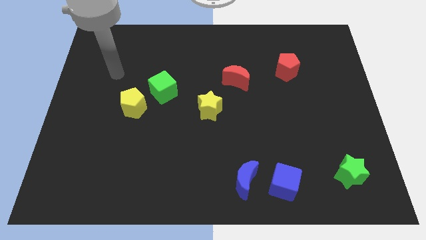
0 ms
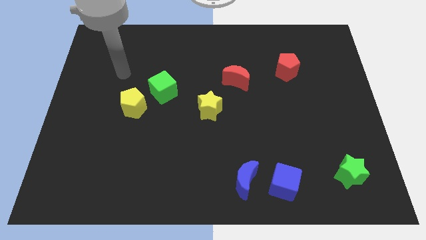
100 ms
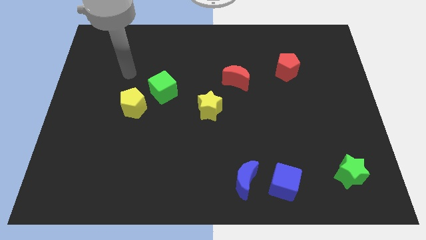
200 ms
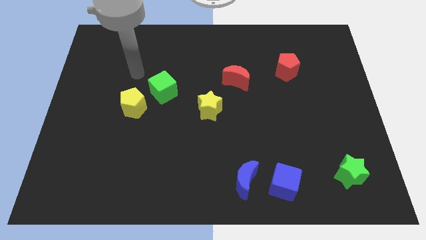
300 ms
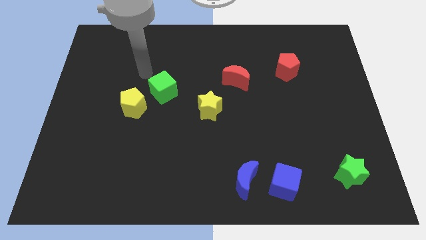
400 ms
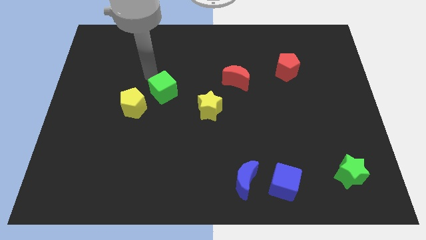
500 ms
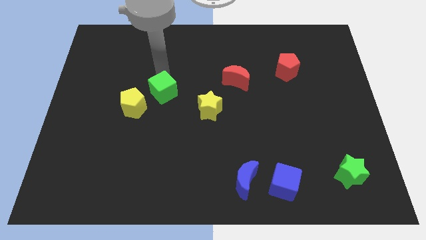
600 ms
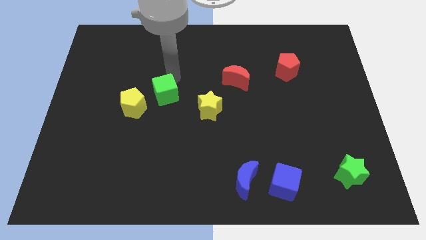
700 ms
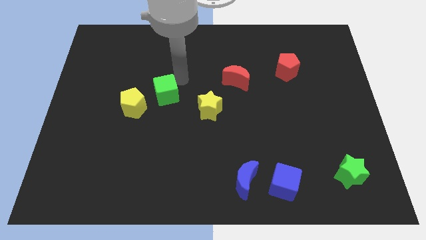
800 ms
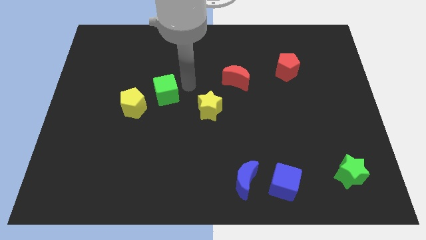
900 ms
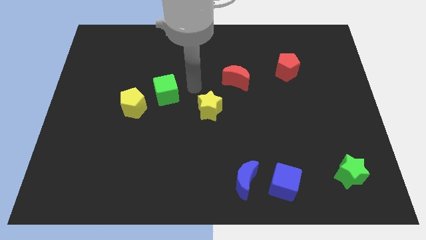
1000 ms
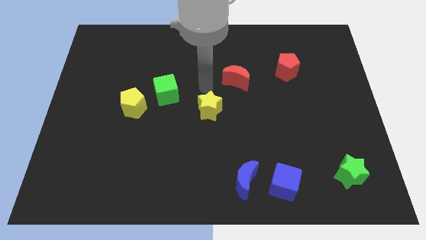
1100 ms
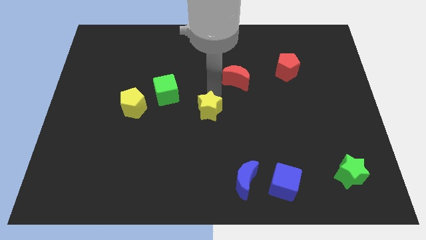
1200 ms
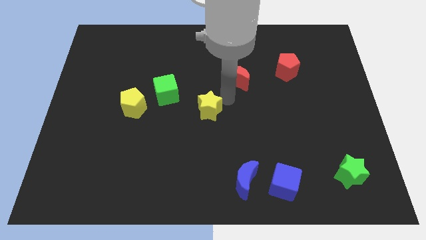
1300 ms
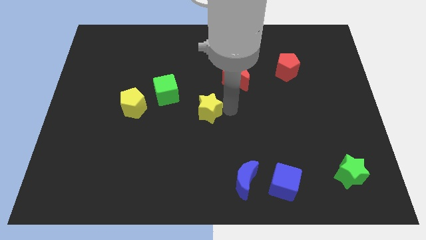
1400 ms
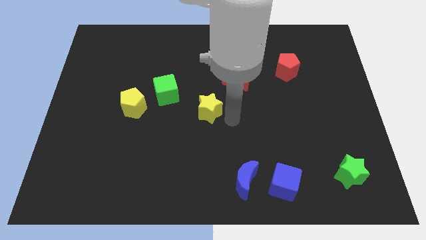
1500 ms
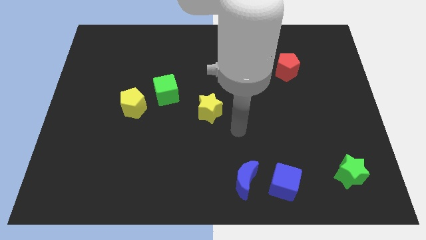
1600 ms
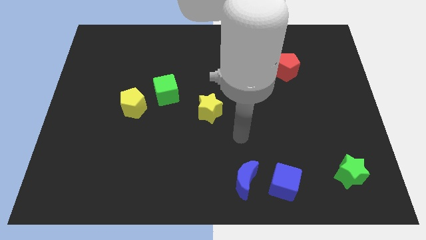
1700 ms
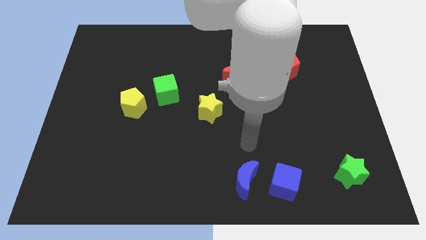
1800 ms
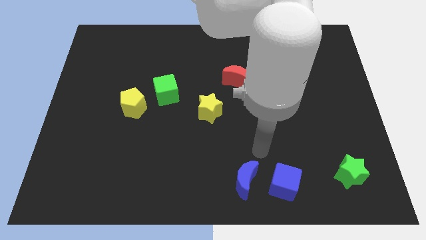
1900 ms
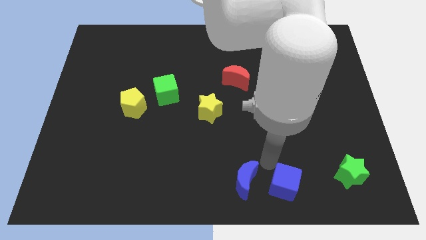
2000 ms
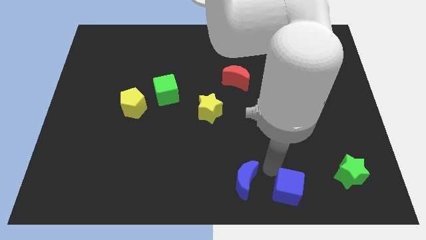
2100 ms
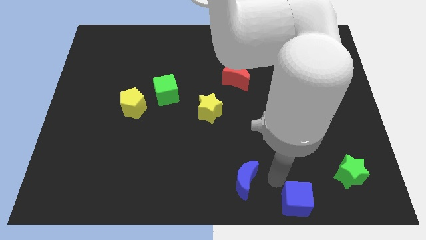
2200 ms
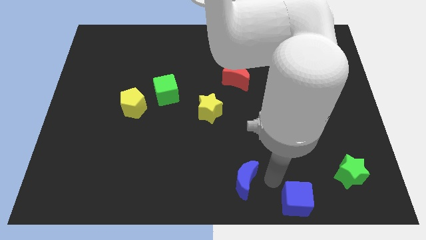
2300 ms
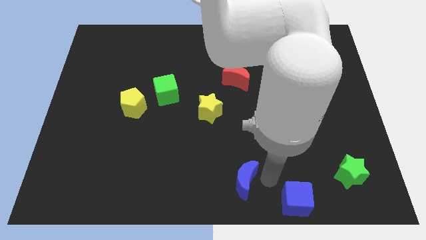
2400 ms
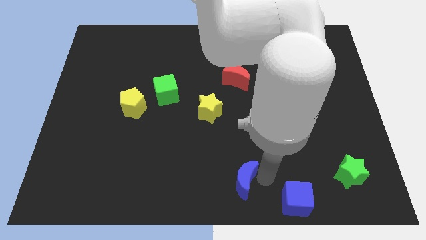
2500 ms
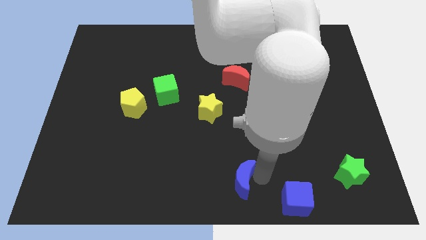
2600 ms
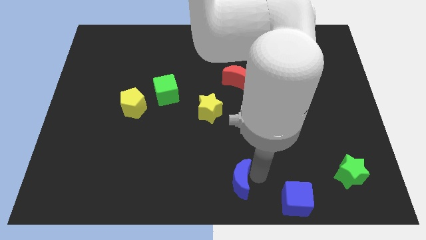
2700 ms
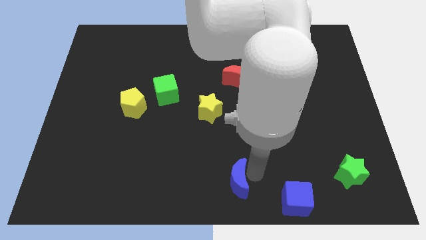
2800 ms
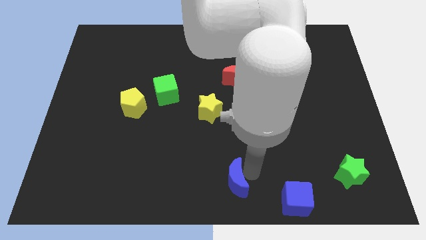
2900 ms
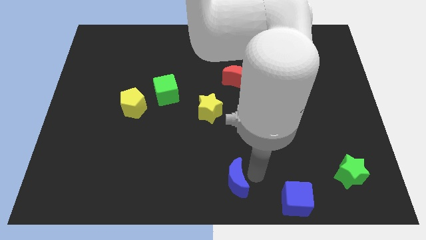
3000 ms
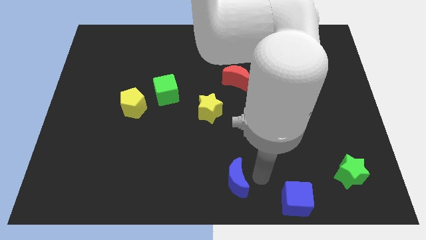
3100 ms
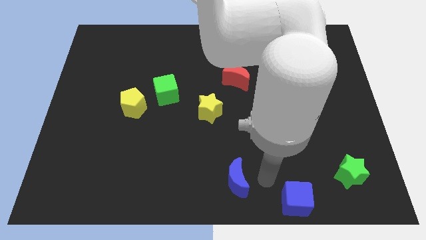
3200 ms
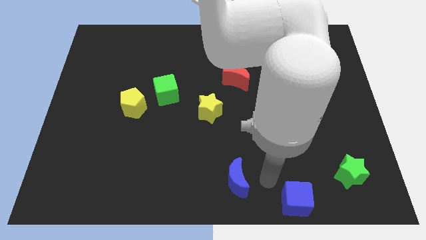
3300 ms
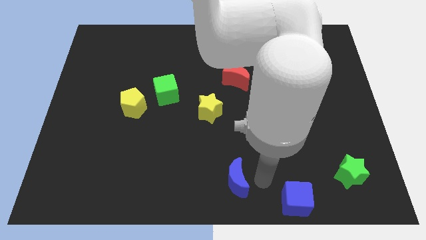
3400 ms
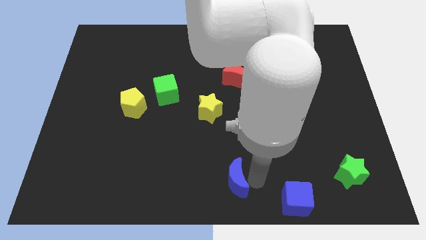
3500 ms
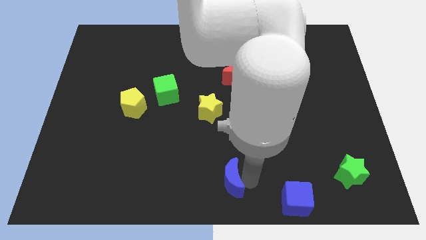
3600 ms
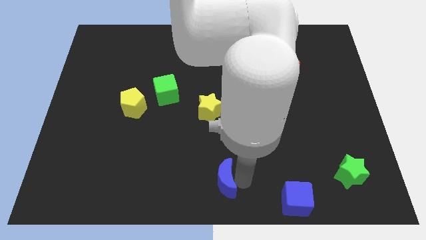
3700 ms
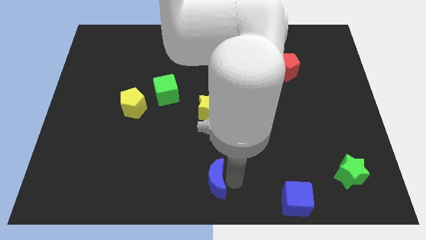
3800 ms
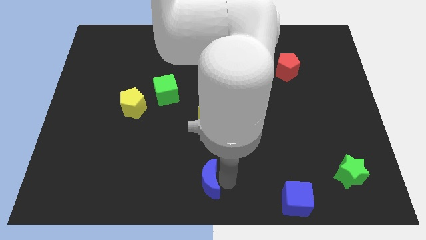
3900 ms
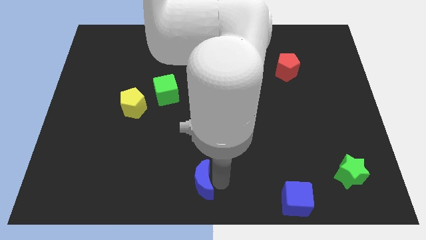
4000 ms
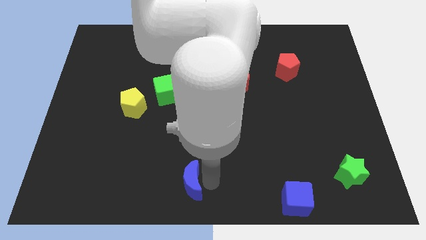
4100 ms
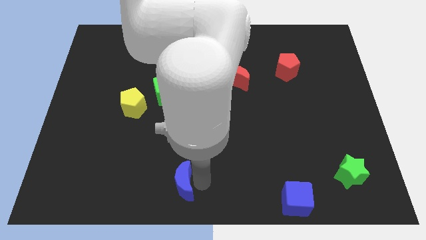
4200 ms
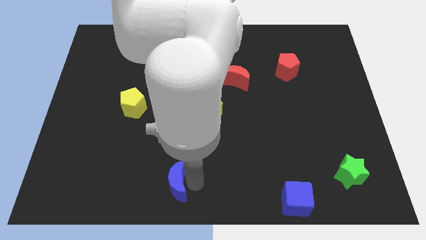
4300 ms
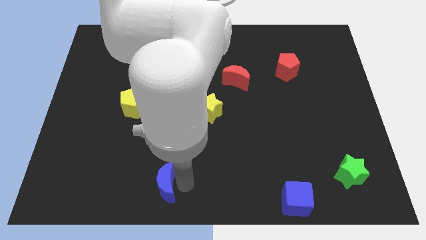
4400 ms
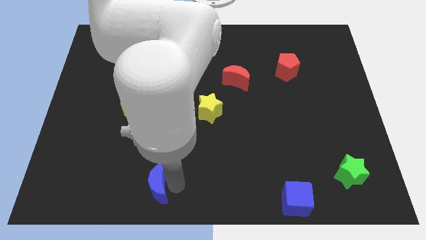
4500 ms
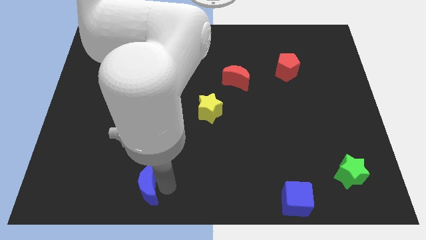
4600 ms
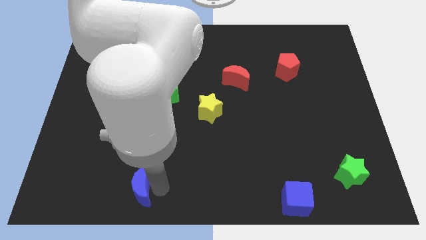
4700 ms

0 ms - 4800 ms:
push the blue moon left

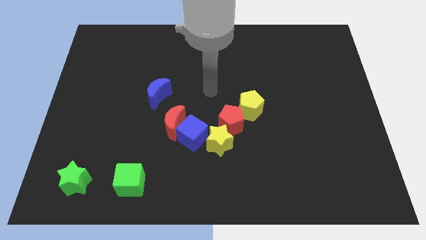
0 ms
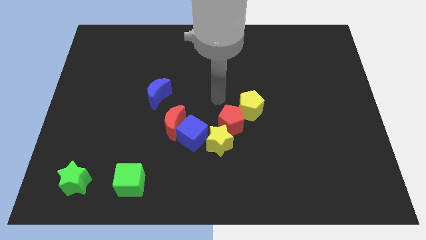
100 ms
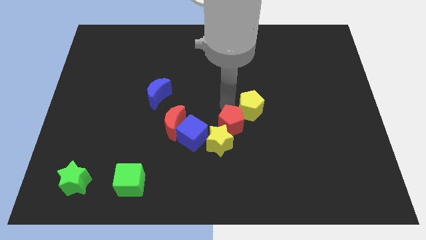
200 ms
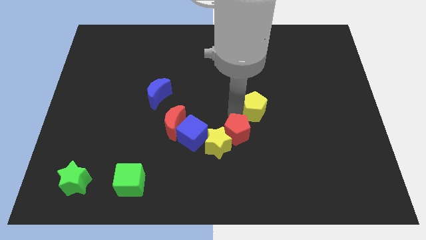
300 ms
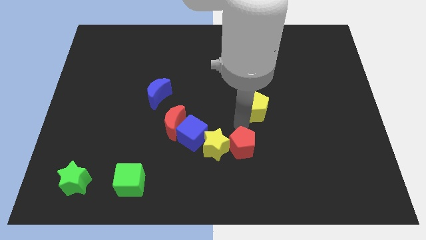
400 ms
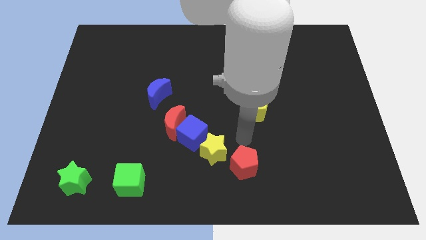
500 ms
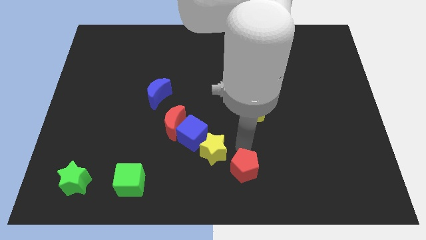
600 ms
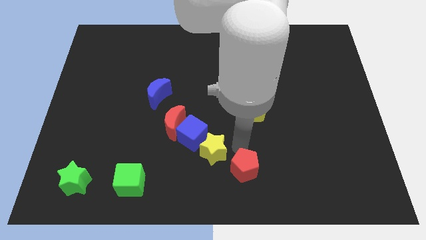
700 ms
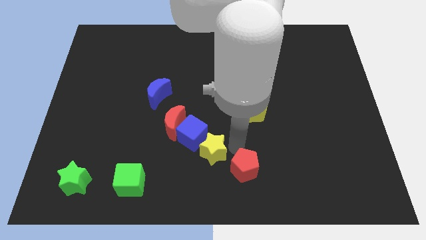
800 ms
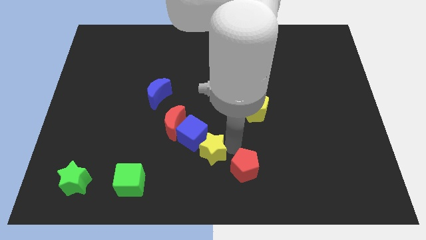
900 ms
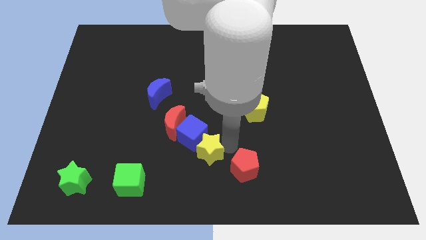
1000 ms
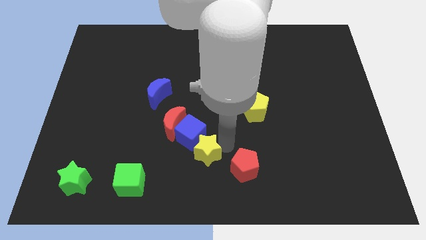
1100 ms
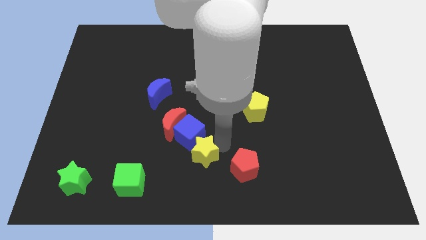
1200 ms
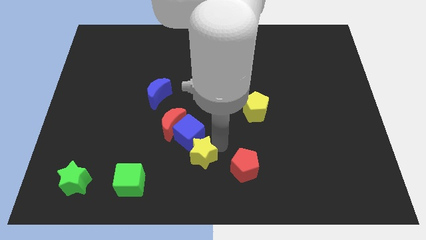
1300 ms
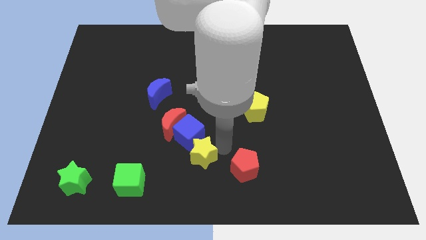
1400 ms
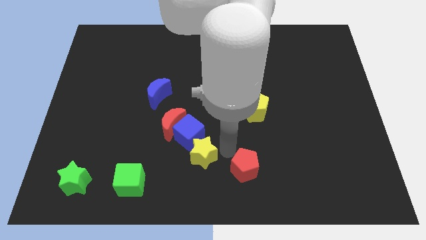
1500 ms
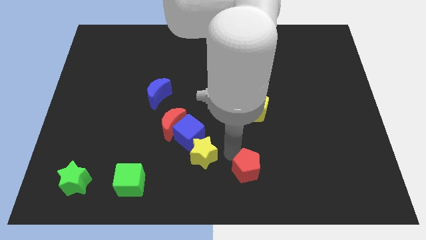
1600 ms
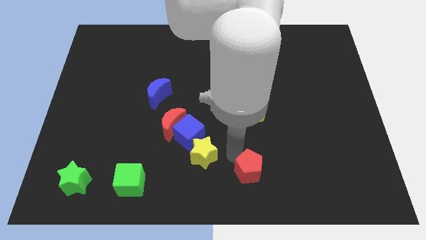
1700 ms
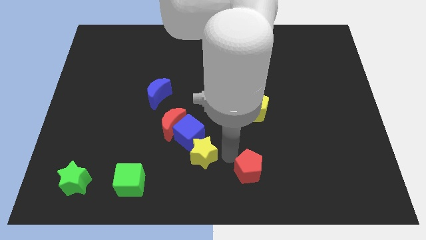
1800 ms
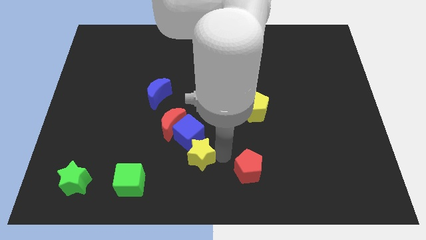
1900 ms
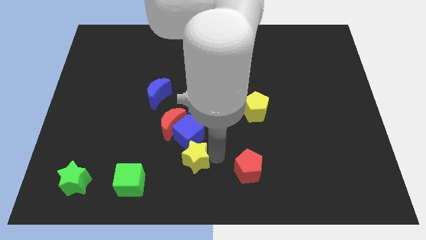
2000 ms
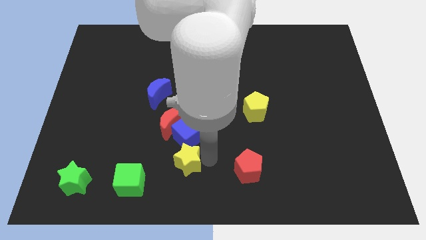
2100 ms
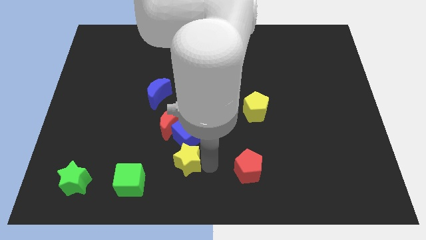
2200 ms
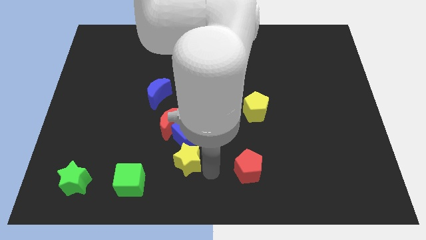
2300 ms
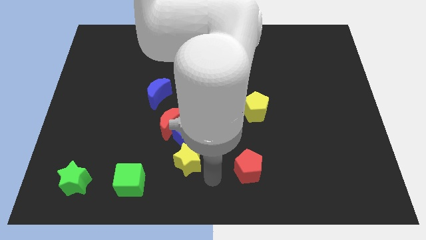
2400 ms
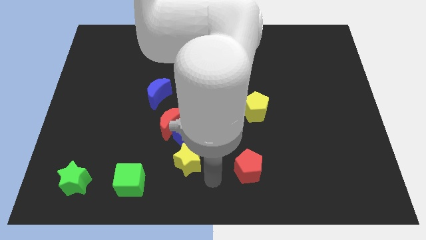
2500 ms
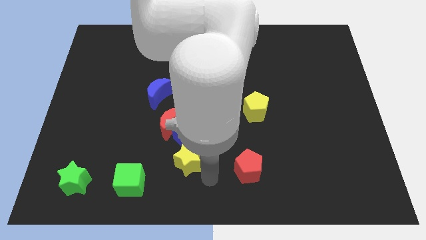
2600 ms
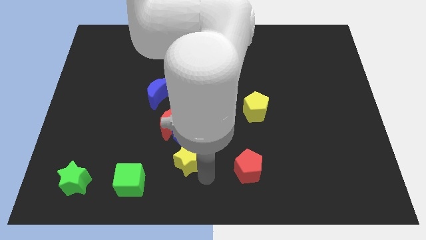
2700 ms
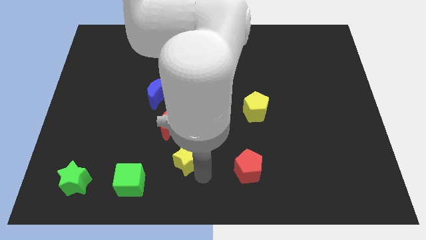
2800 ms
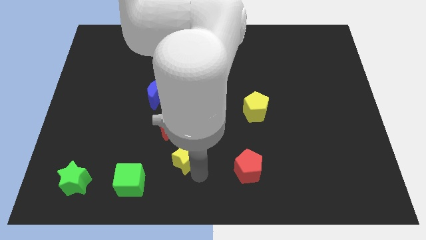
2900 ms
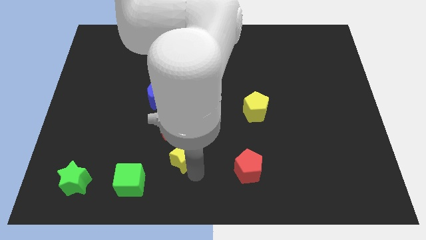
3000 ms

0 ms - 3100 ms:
move the yellow star left somewhat

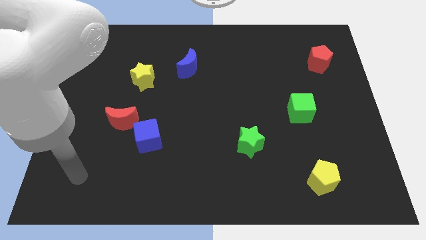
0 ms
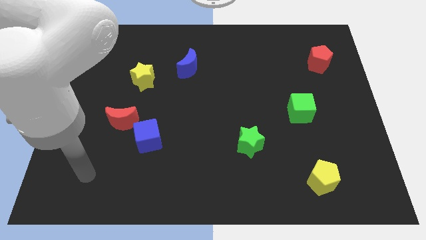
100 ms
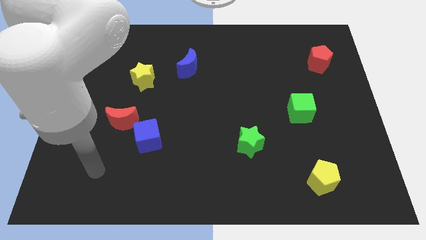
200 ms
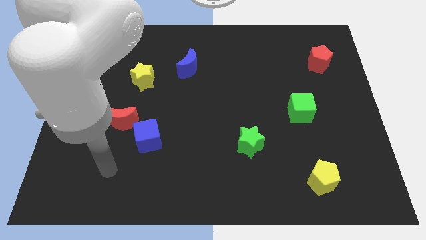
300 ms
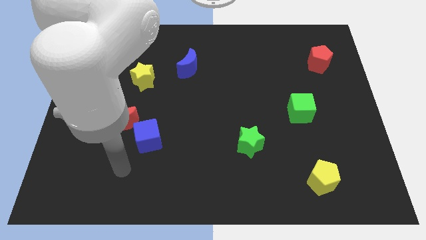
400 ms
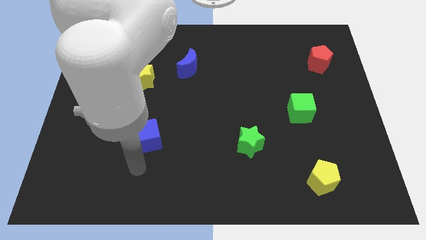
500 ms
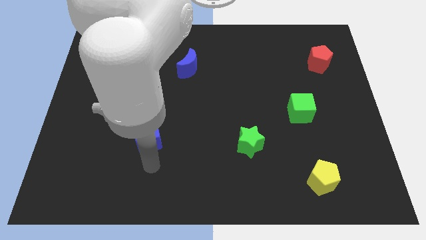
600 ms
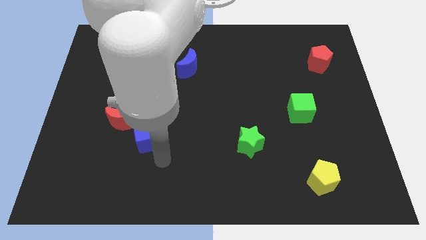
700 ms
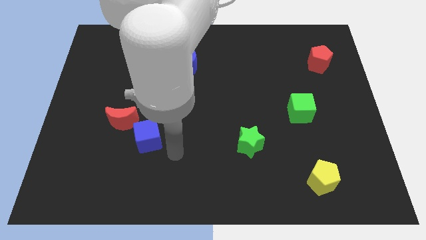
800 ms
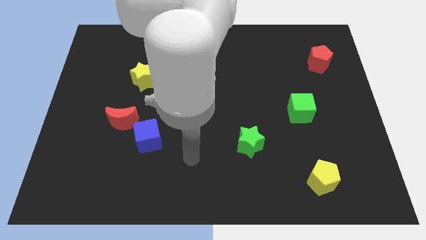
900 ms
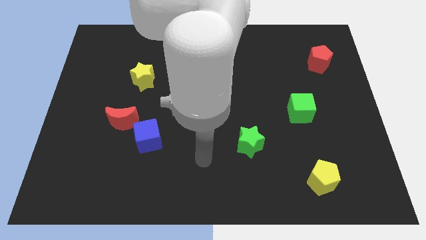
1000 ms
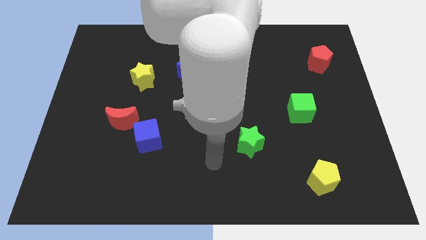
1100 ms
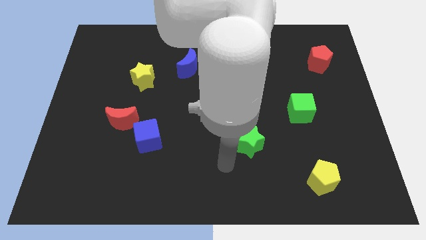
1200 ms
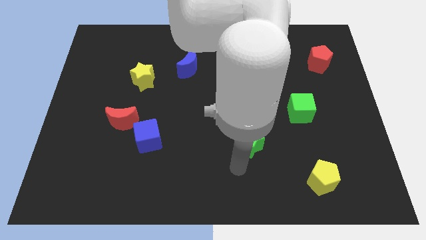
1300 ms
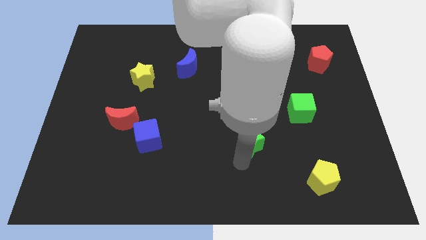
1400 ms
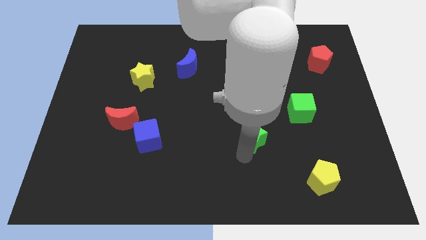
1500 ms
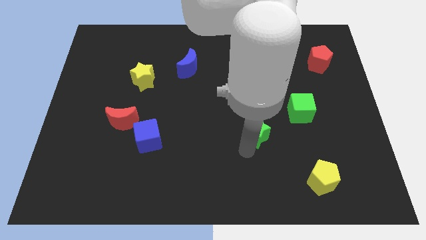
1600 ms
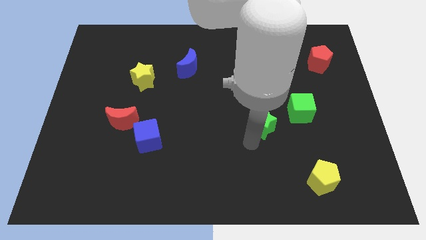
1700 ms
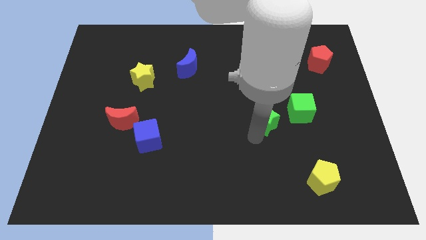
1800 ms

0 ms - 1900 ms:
move the green star somewhat diagonally up and to the right
